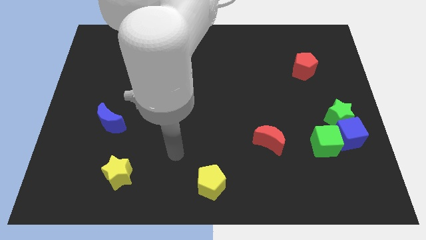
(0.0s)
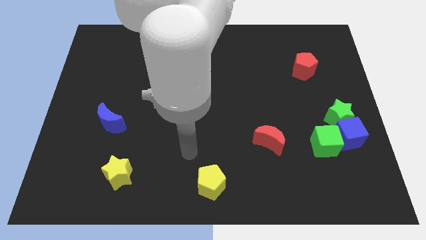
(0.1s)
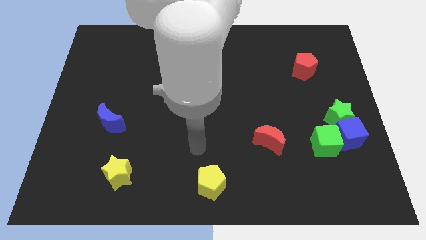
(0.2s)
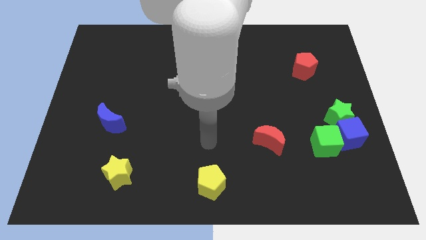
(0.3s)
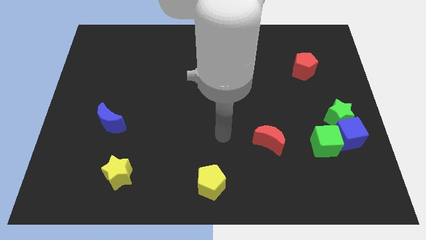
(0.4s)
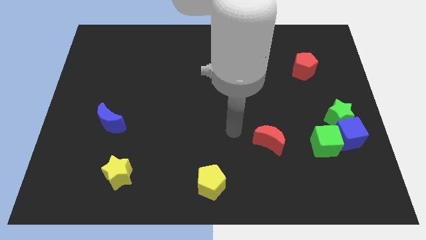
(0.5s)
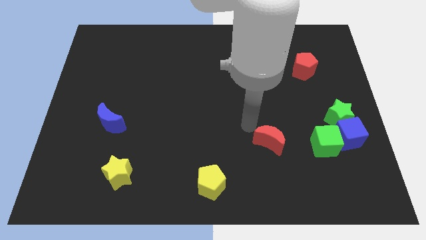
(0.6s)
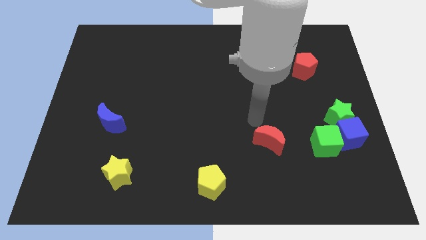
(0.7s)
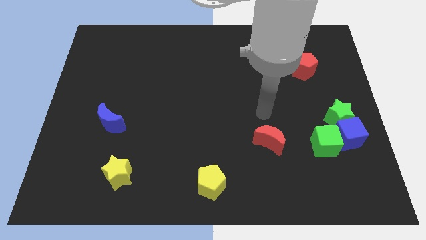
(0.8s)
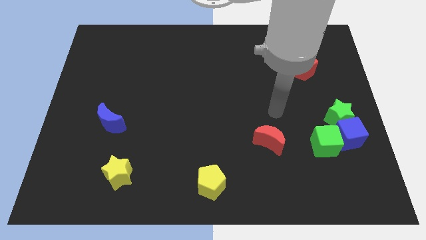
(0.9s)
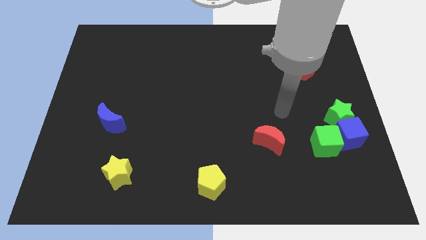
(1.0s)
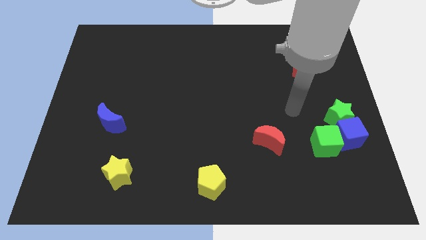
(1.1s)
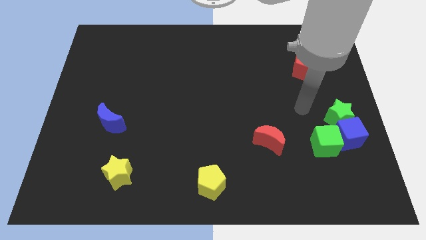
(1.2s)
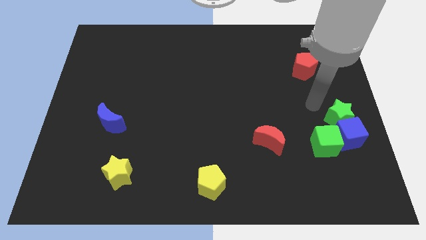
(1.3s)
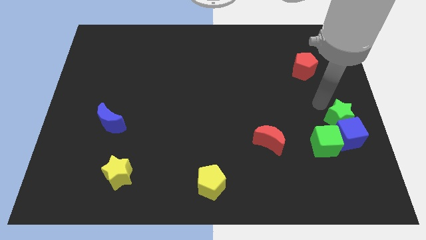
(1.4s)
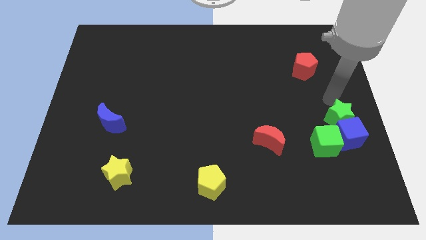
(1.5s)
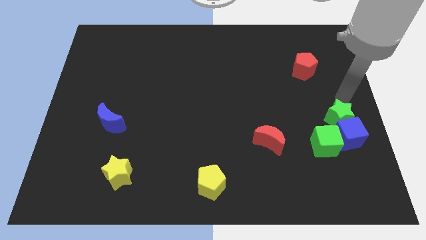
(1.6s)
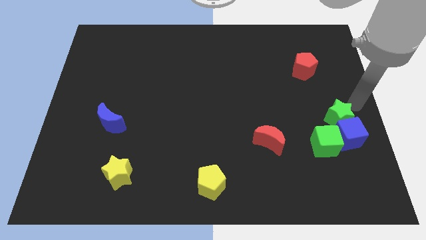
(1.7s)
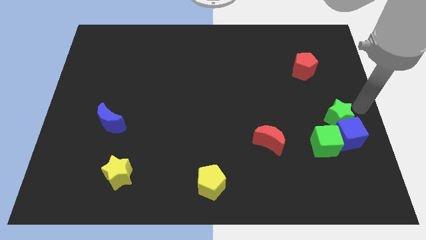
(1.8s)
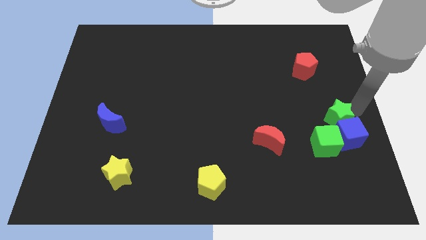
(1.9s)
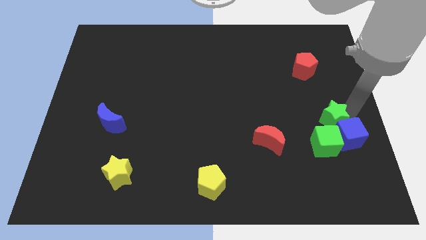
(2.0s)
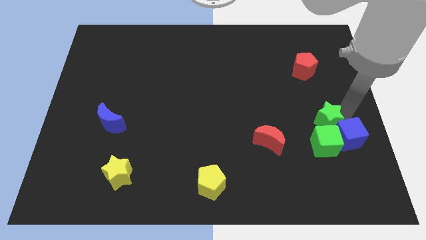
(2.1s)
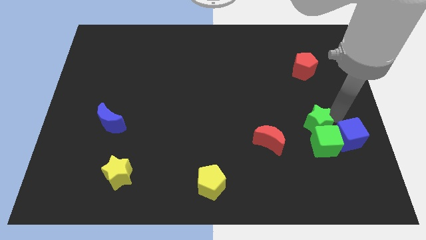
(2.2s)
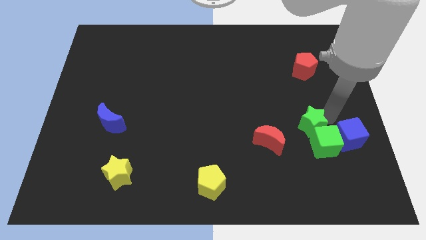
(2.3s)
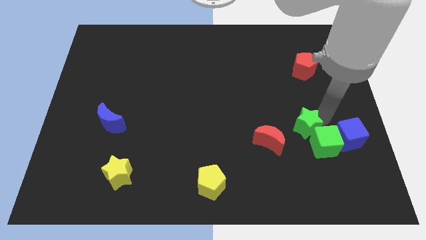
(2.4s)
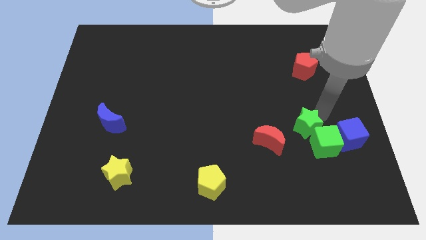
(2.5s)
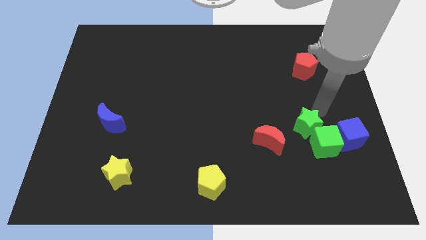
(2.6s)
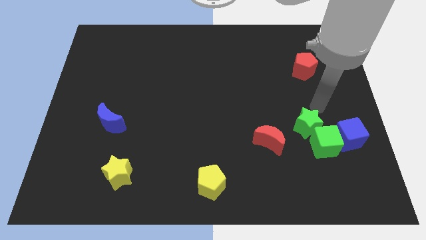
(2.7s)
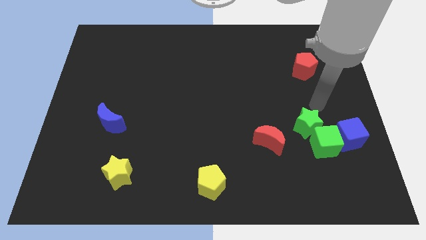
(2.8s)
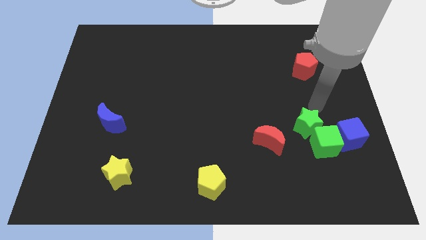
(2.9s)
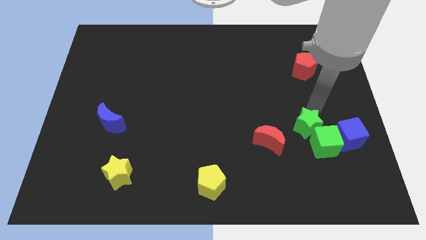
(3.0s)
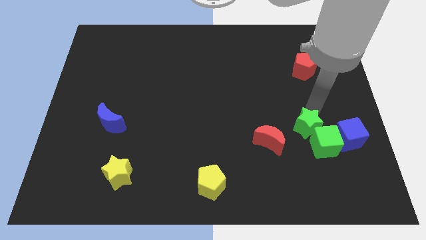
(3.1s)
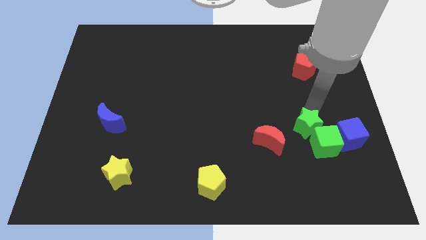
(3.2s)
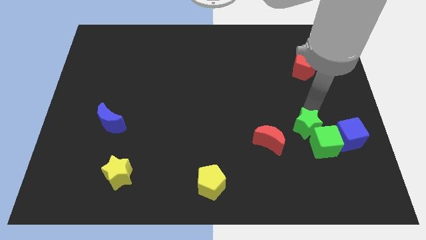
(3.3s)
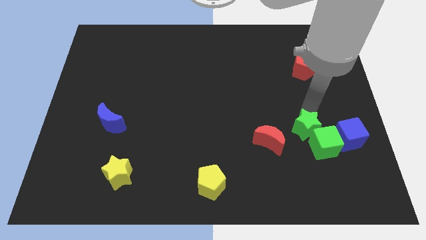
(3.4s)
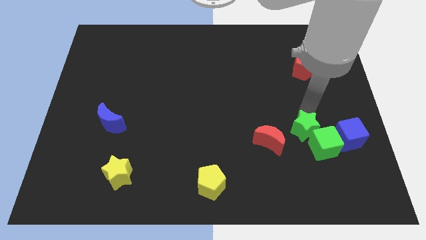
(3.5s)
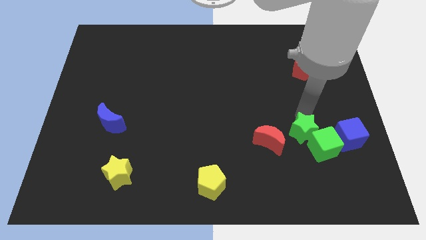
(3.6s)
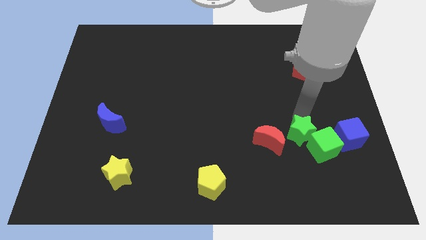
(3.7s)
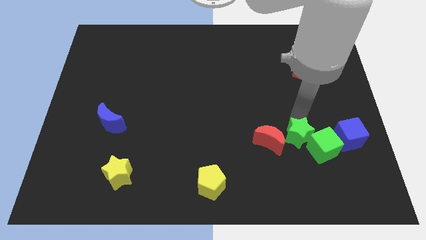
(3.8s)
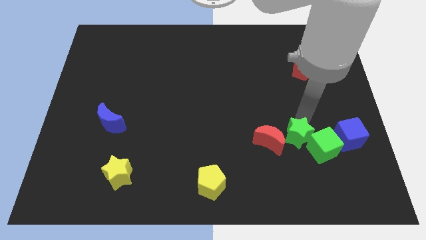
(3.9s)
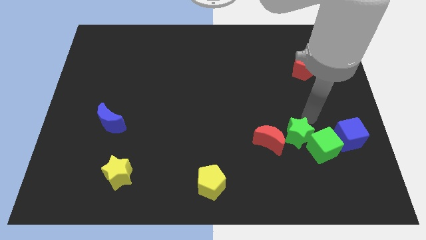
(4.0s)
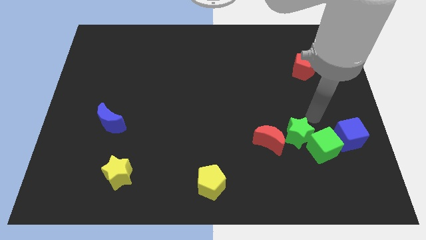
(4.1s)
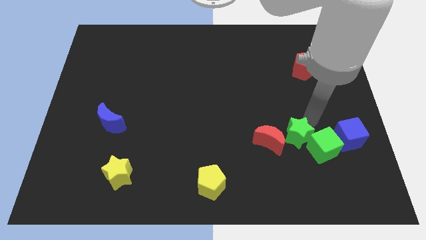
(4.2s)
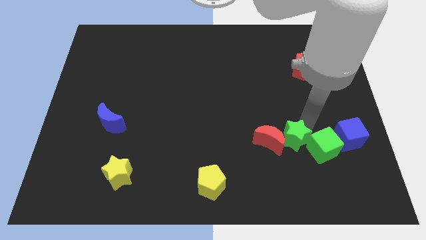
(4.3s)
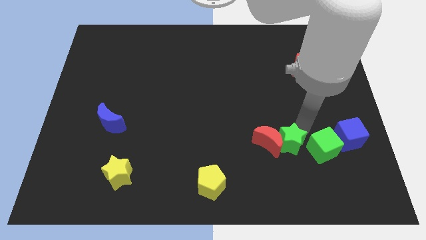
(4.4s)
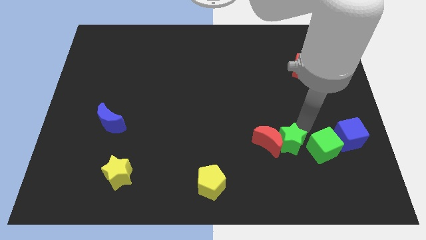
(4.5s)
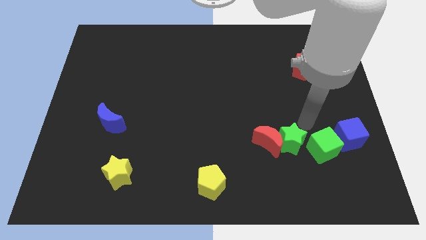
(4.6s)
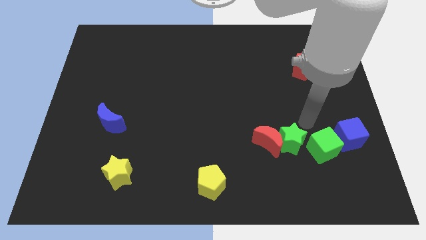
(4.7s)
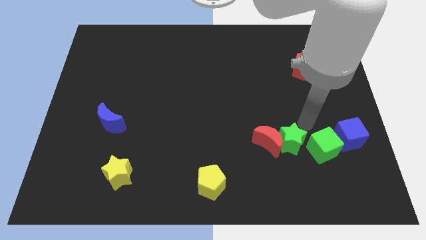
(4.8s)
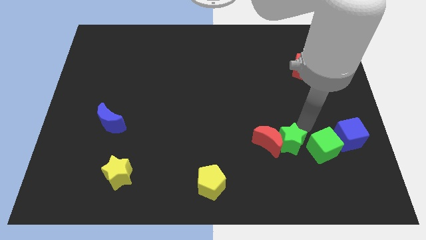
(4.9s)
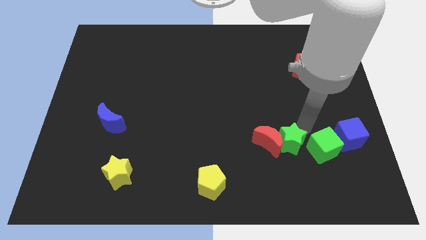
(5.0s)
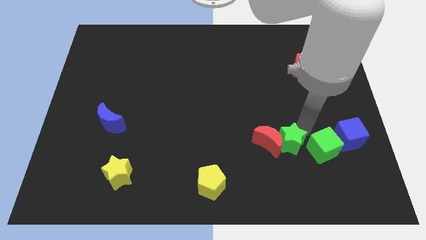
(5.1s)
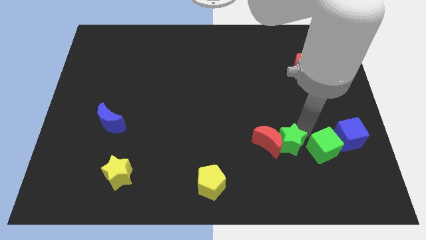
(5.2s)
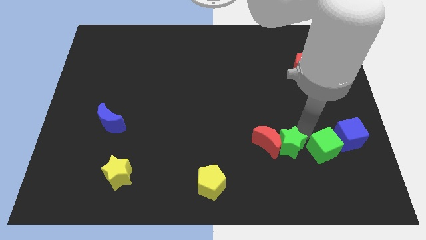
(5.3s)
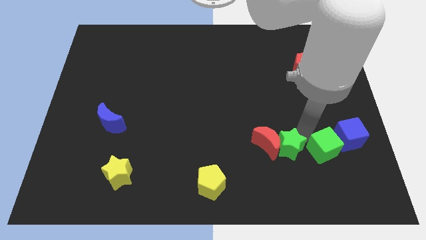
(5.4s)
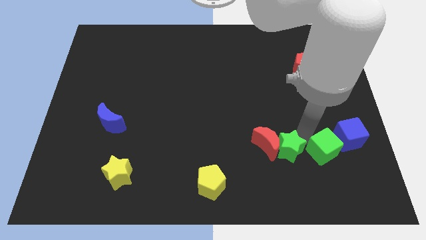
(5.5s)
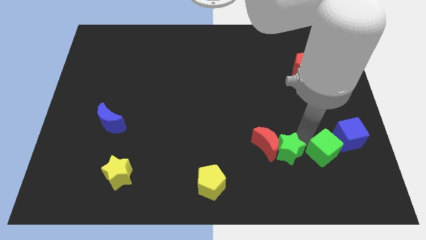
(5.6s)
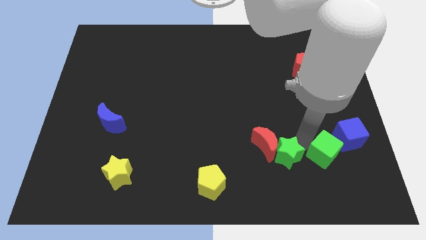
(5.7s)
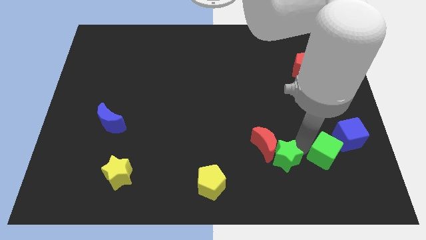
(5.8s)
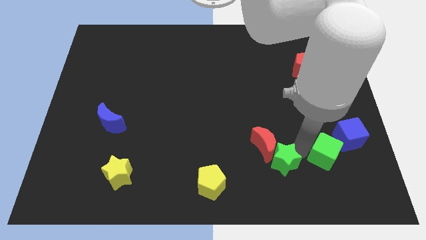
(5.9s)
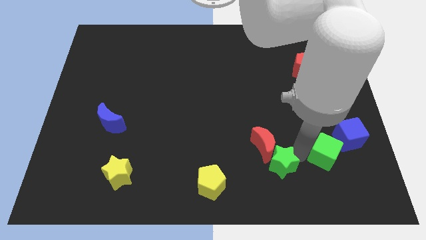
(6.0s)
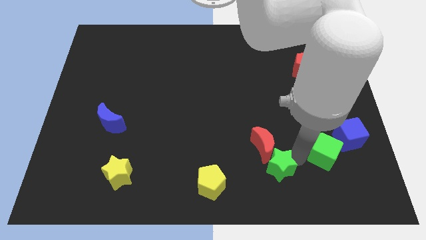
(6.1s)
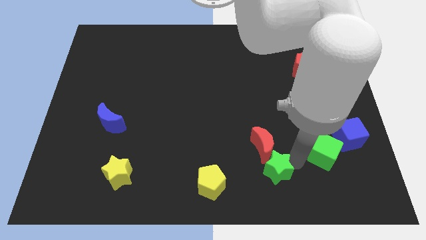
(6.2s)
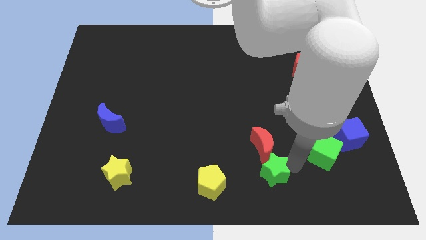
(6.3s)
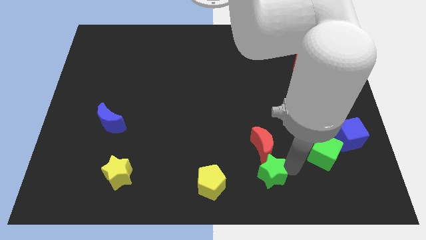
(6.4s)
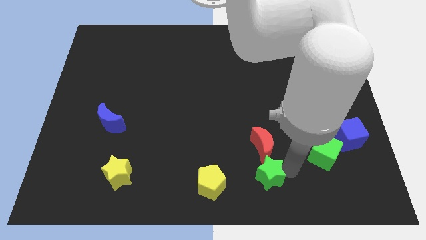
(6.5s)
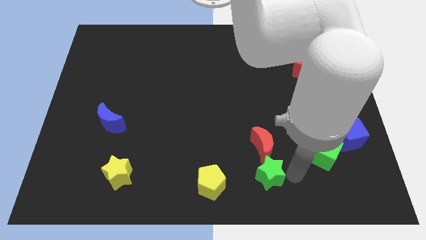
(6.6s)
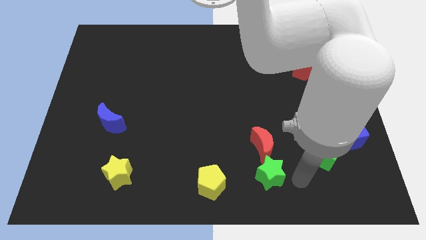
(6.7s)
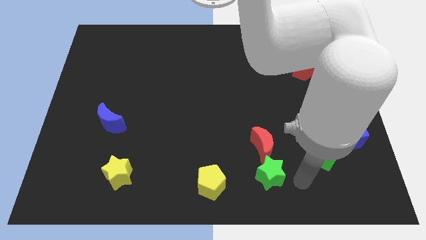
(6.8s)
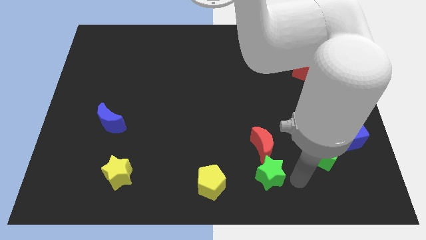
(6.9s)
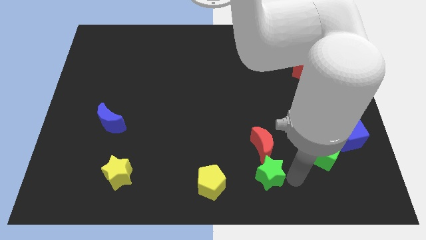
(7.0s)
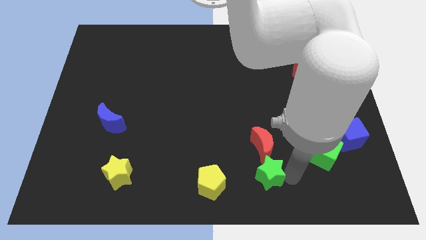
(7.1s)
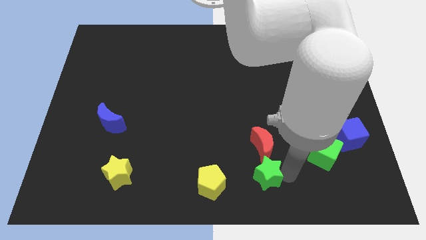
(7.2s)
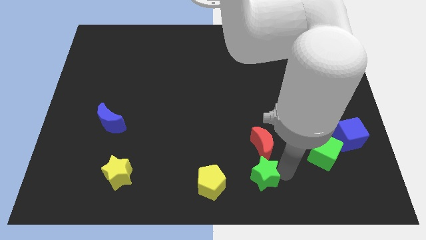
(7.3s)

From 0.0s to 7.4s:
push the green star diagonally down and to the left of the red moon
